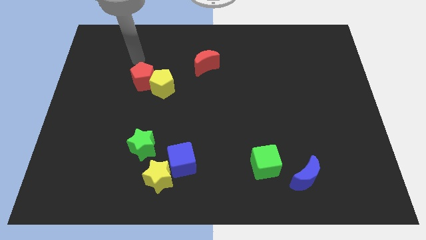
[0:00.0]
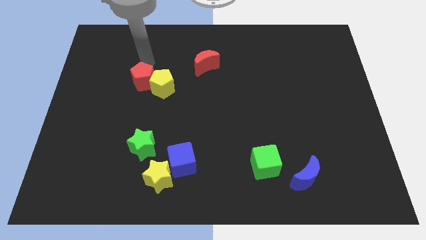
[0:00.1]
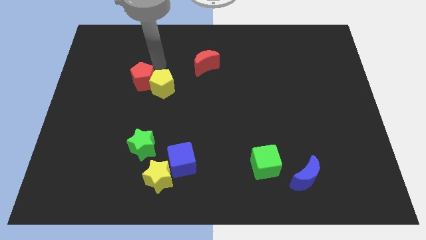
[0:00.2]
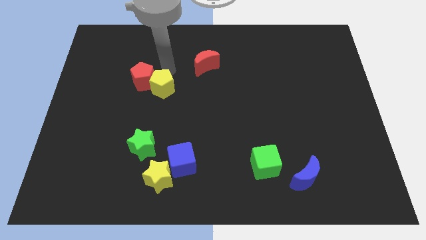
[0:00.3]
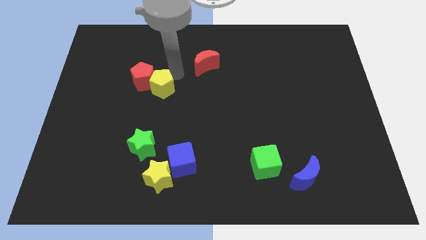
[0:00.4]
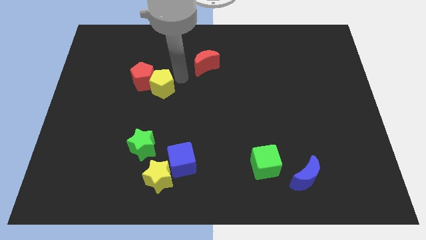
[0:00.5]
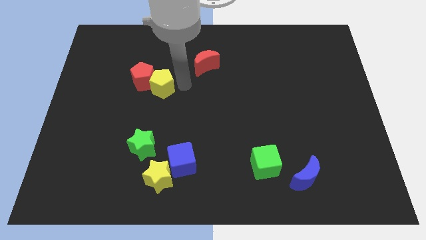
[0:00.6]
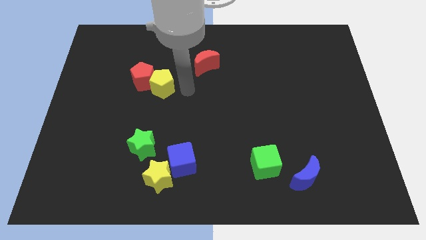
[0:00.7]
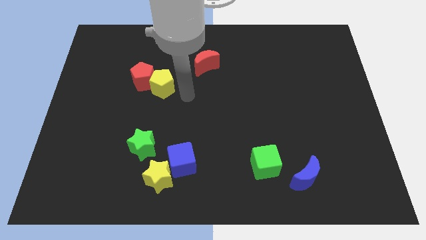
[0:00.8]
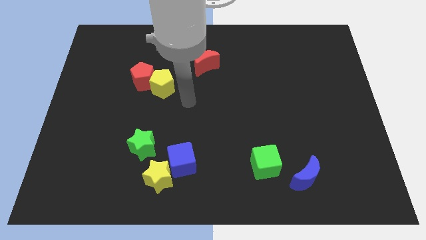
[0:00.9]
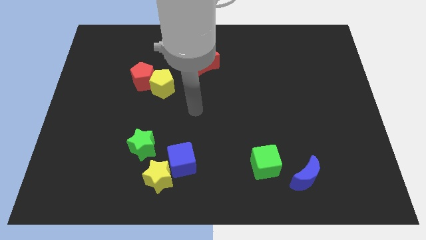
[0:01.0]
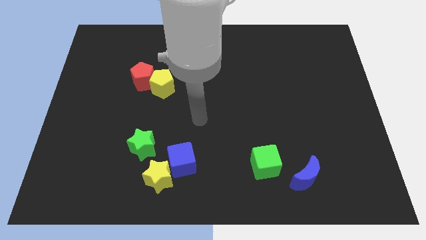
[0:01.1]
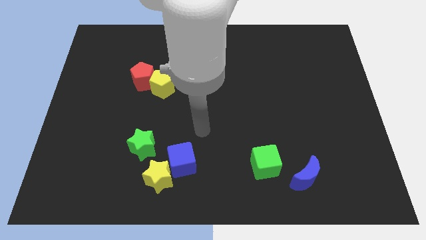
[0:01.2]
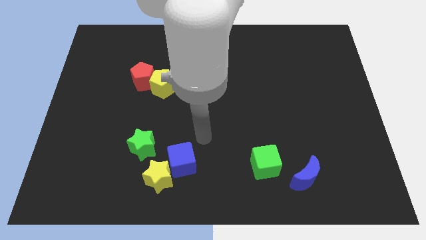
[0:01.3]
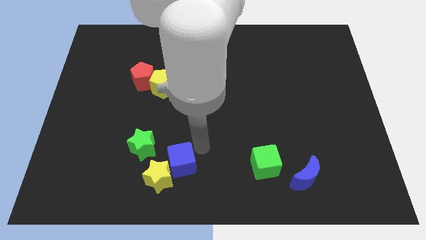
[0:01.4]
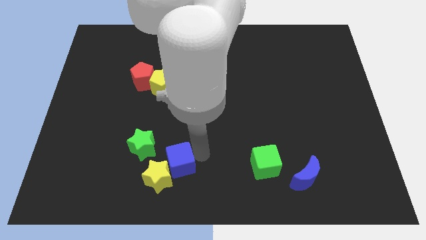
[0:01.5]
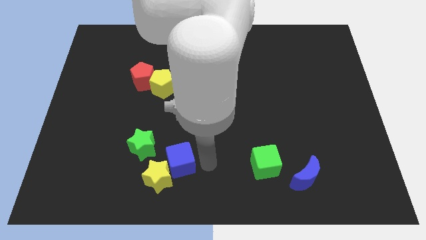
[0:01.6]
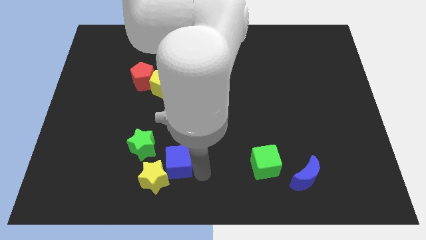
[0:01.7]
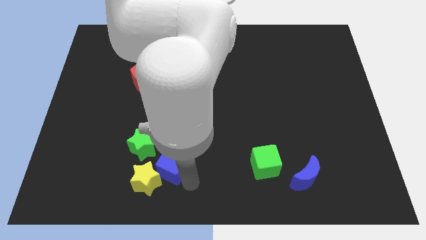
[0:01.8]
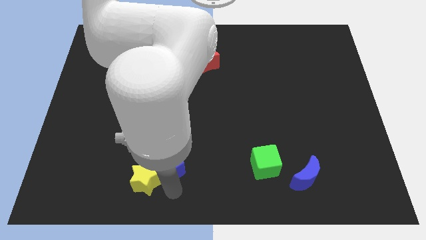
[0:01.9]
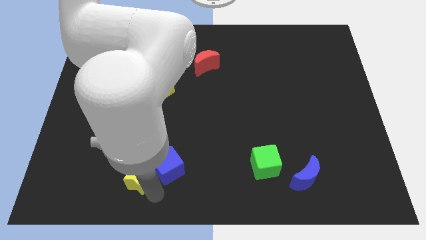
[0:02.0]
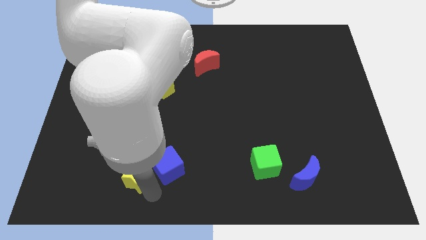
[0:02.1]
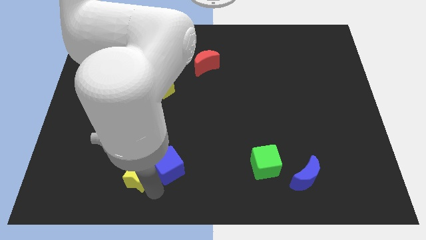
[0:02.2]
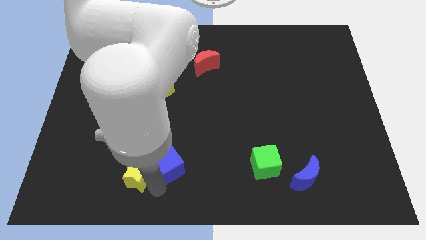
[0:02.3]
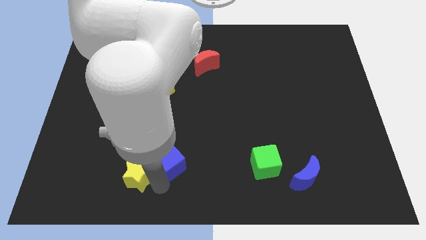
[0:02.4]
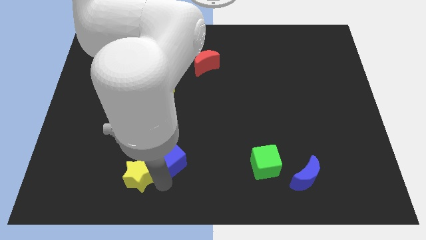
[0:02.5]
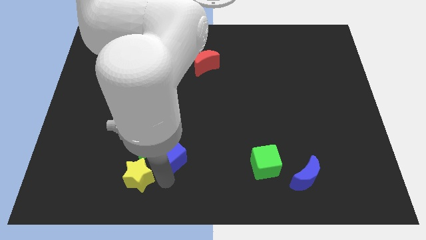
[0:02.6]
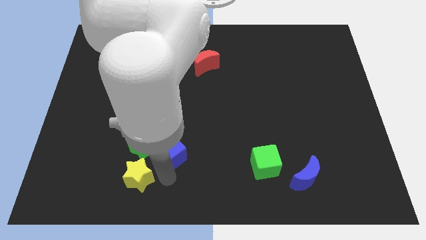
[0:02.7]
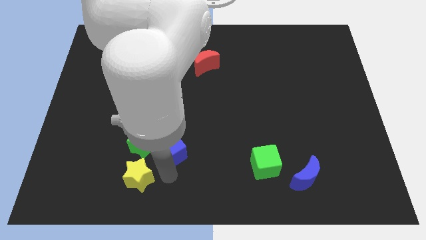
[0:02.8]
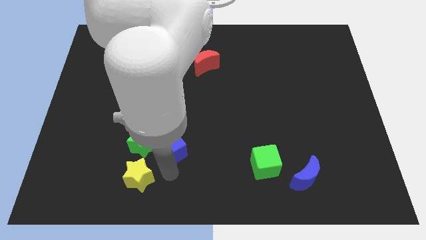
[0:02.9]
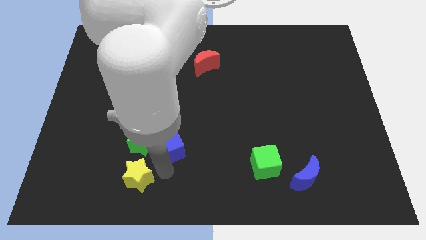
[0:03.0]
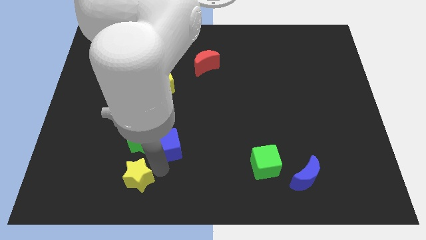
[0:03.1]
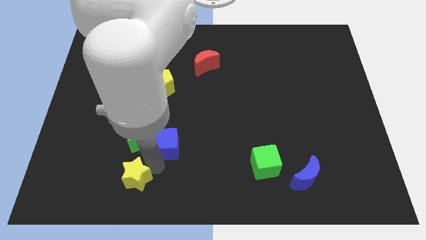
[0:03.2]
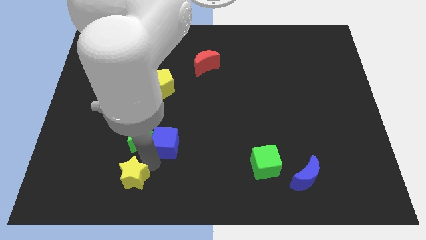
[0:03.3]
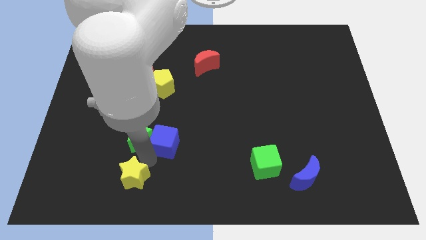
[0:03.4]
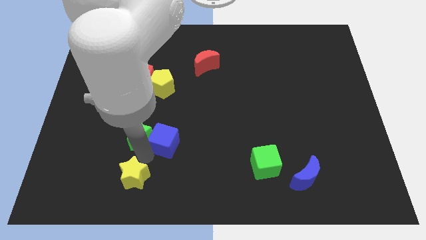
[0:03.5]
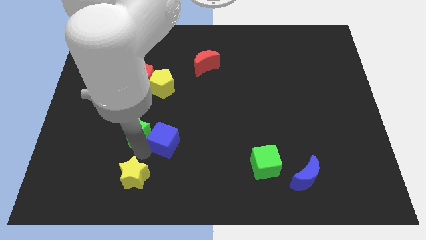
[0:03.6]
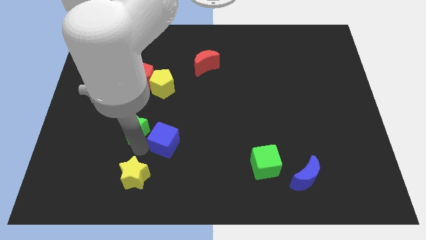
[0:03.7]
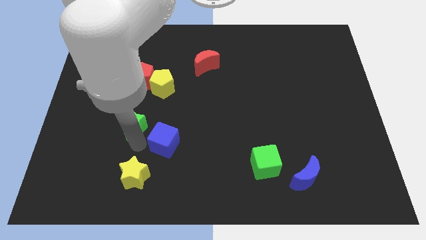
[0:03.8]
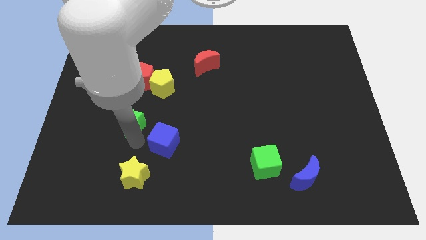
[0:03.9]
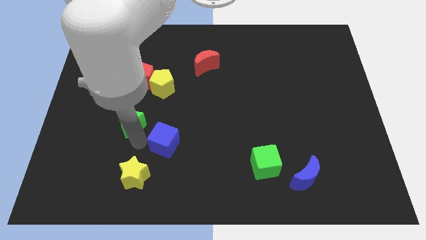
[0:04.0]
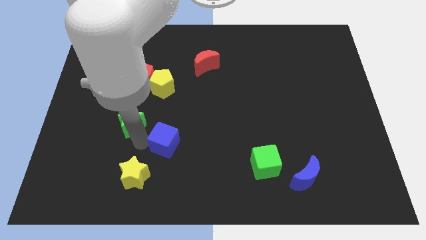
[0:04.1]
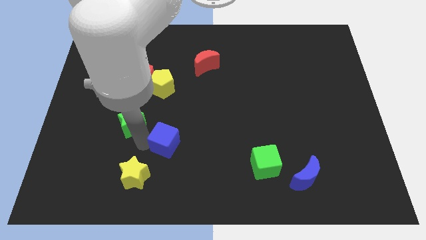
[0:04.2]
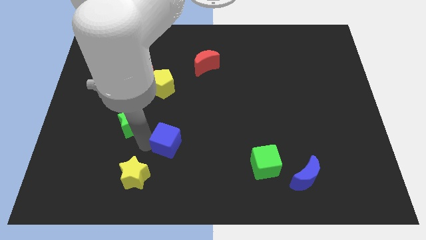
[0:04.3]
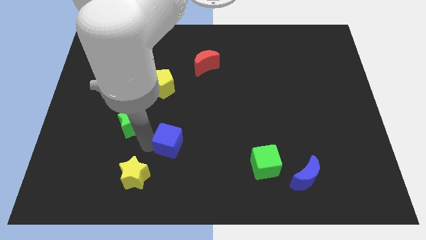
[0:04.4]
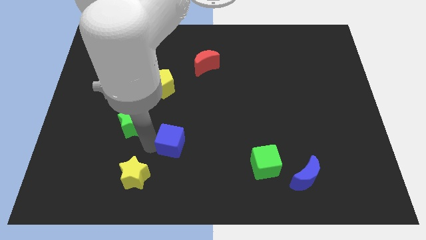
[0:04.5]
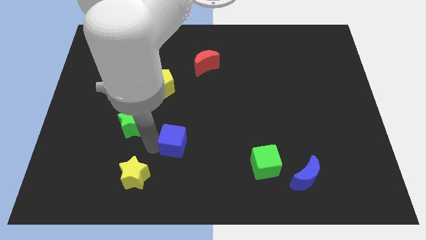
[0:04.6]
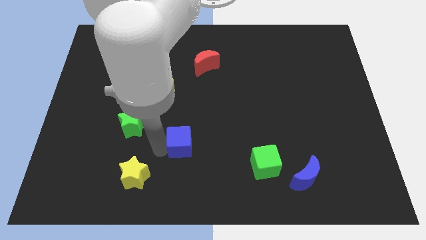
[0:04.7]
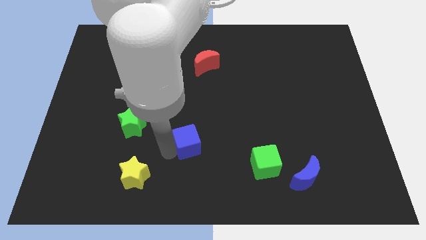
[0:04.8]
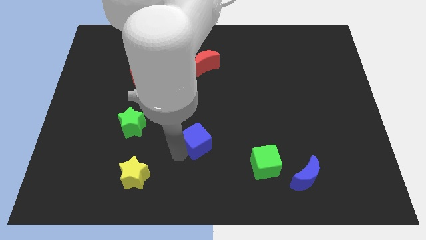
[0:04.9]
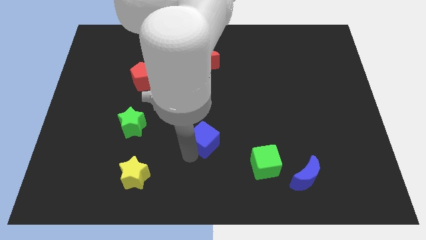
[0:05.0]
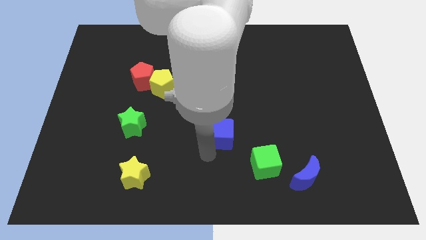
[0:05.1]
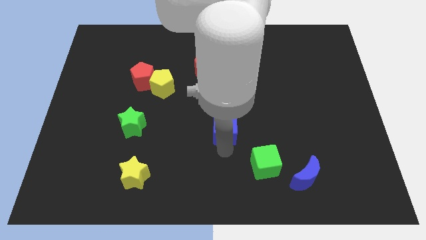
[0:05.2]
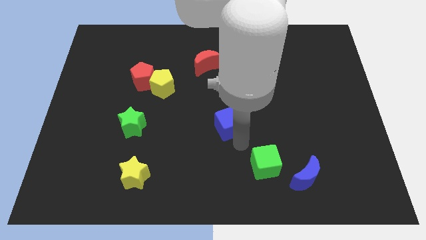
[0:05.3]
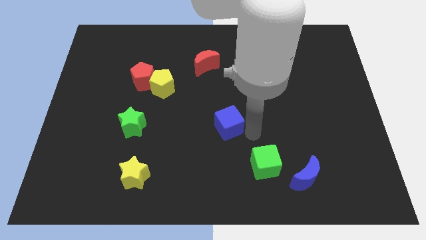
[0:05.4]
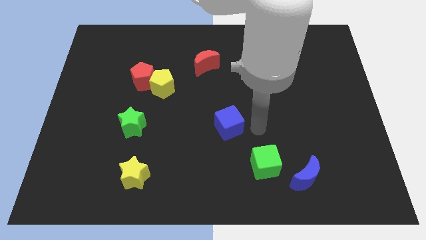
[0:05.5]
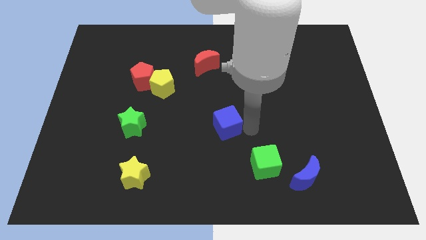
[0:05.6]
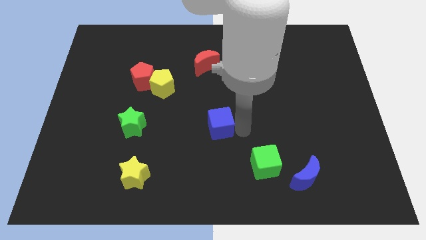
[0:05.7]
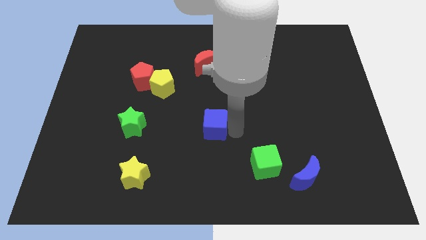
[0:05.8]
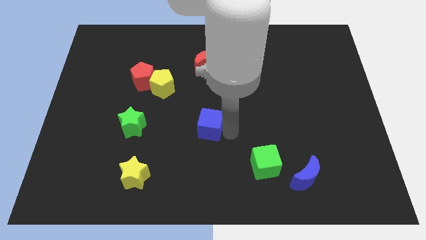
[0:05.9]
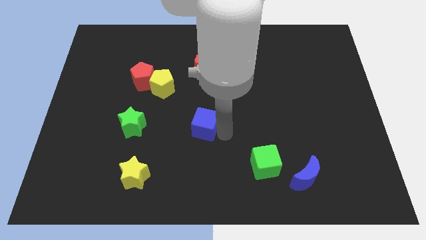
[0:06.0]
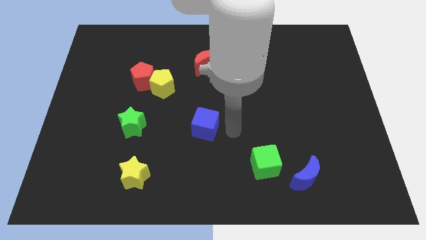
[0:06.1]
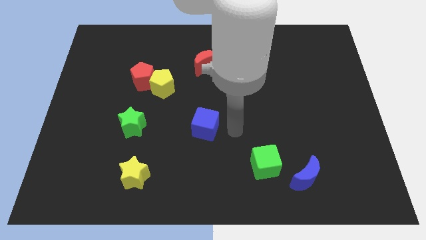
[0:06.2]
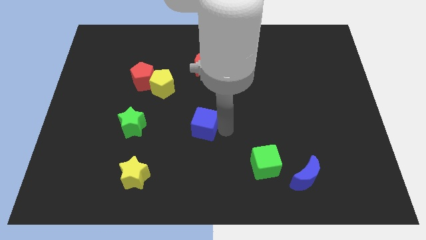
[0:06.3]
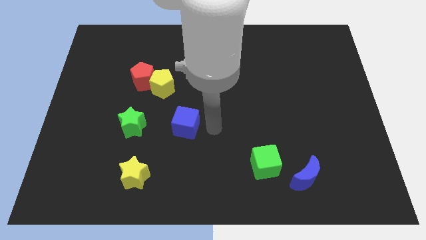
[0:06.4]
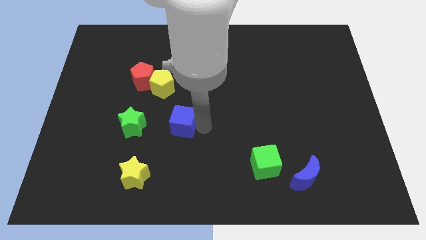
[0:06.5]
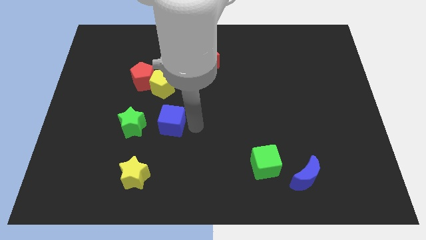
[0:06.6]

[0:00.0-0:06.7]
push the blue cube up and left diagonally a little

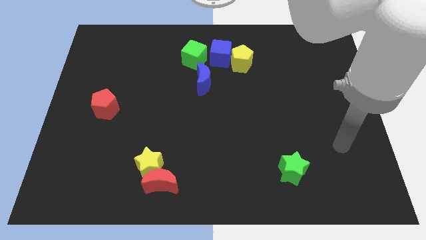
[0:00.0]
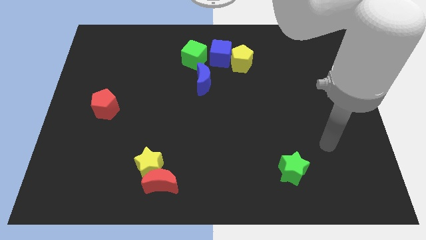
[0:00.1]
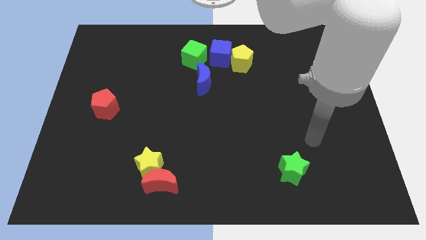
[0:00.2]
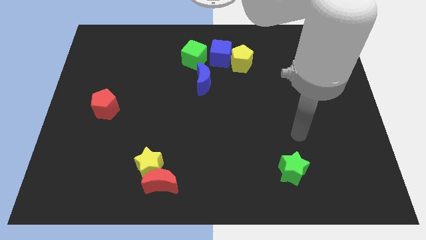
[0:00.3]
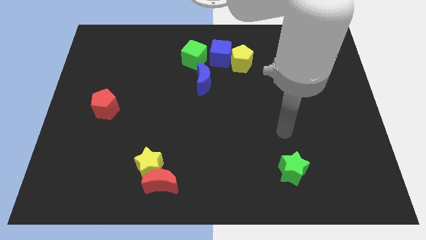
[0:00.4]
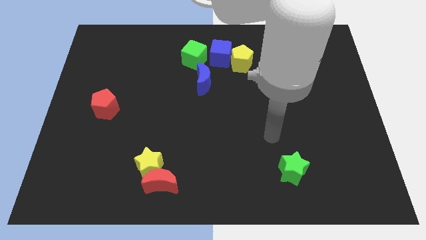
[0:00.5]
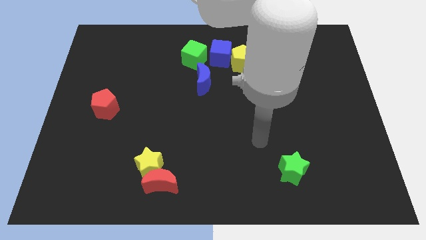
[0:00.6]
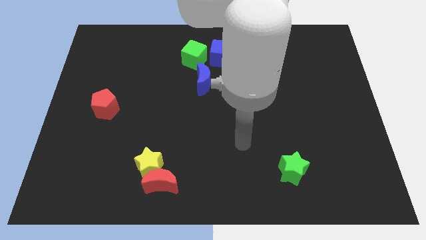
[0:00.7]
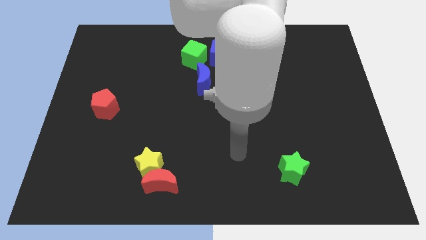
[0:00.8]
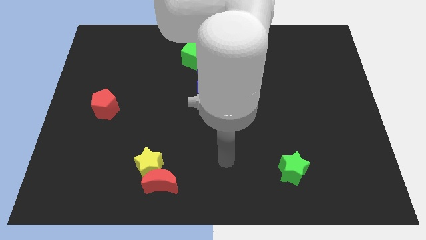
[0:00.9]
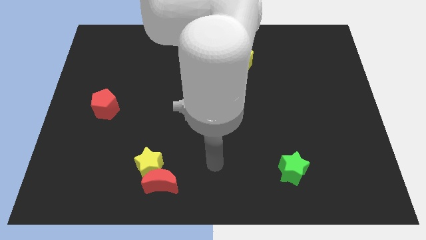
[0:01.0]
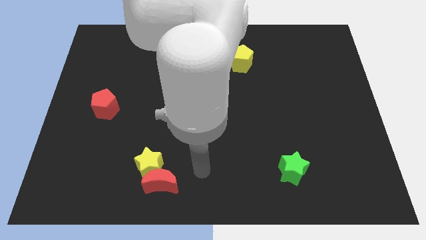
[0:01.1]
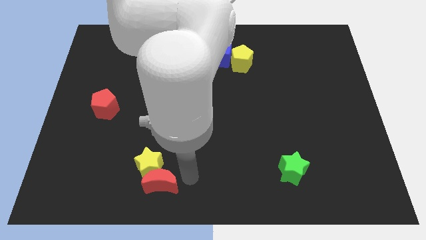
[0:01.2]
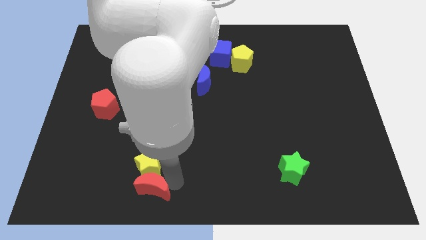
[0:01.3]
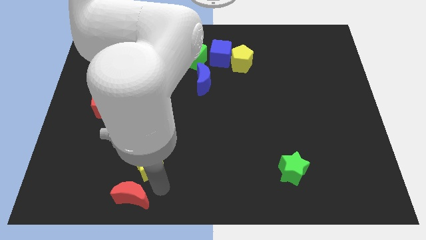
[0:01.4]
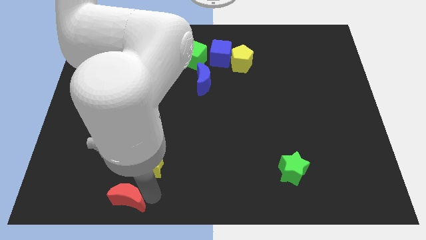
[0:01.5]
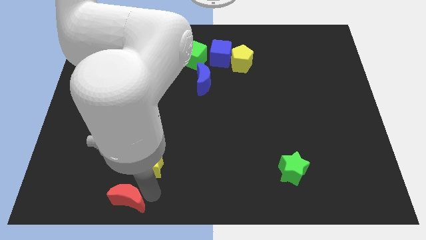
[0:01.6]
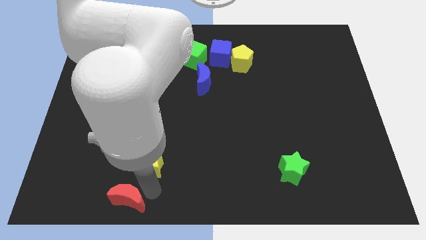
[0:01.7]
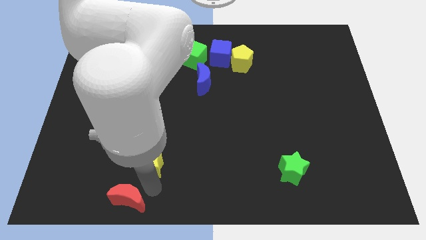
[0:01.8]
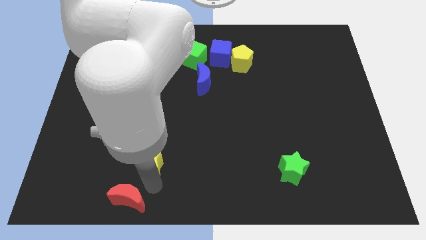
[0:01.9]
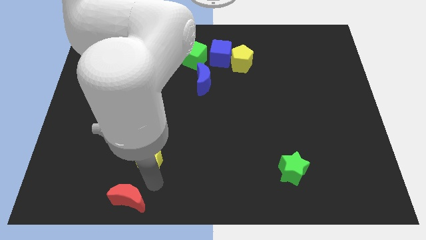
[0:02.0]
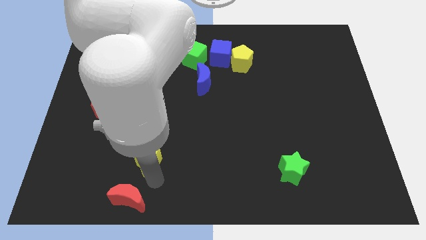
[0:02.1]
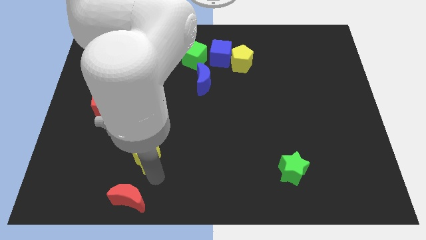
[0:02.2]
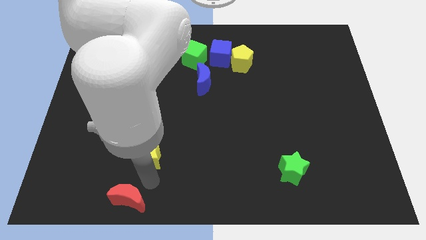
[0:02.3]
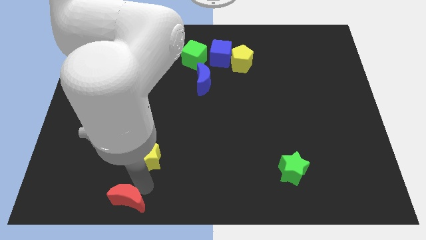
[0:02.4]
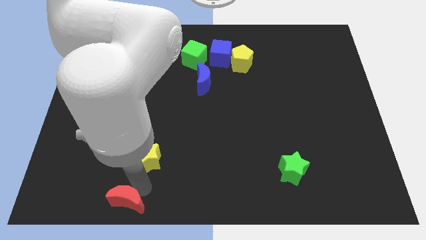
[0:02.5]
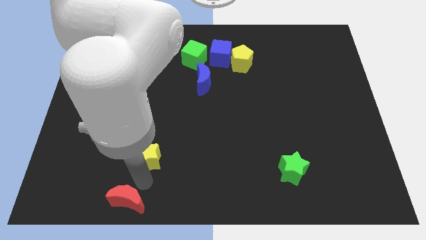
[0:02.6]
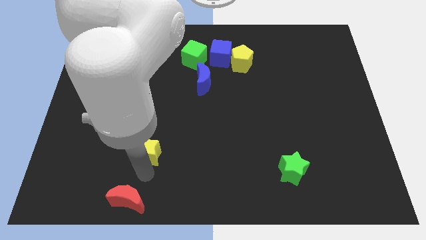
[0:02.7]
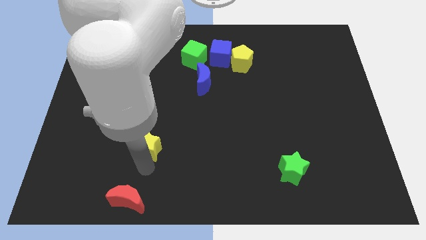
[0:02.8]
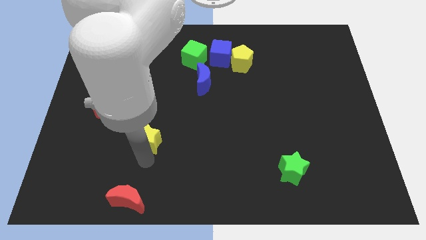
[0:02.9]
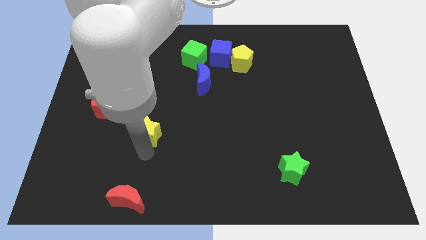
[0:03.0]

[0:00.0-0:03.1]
slightly slide the yellow star up
